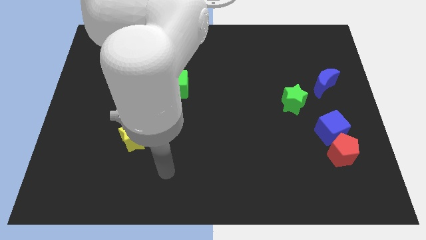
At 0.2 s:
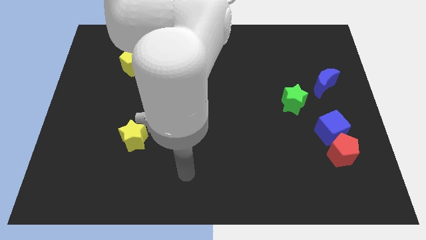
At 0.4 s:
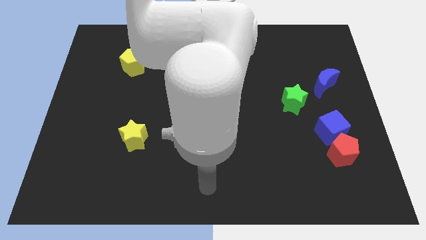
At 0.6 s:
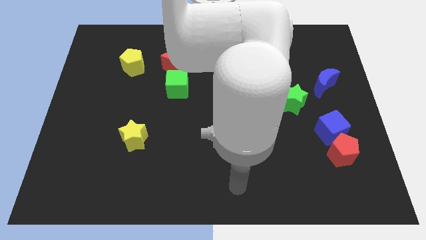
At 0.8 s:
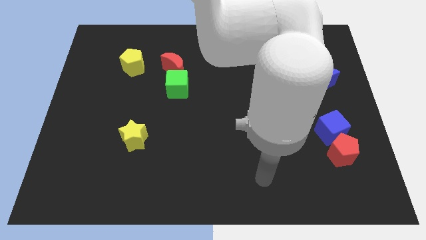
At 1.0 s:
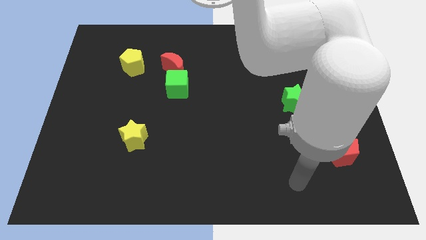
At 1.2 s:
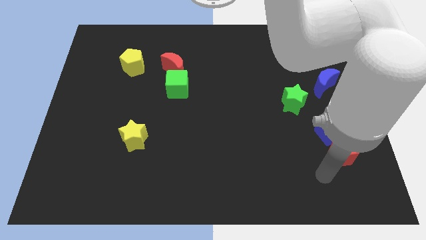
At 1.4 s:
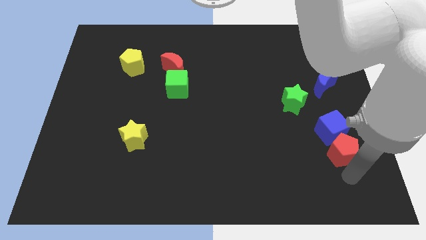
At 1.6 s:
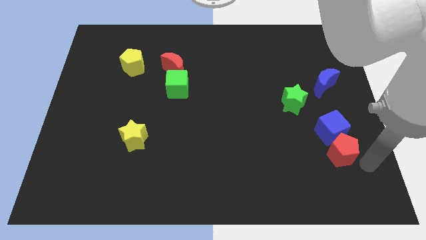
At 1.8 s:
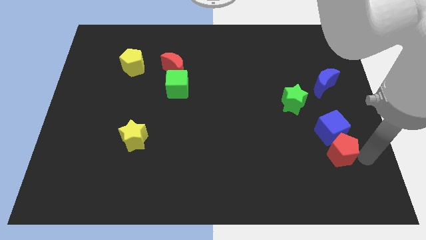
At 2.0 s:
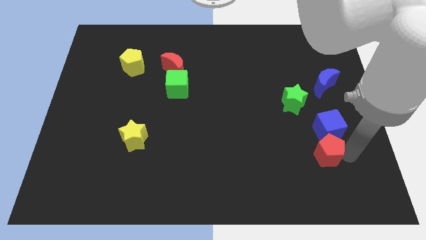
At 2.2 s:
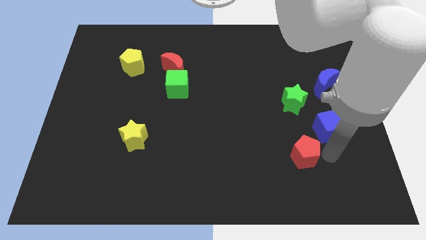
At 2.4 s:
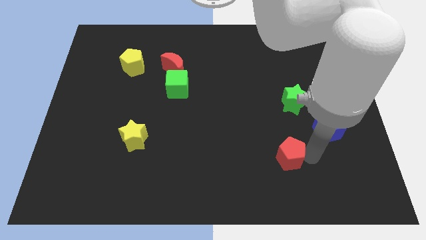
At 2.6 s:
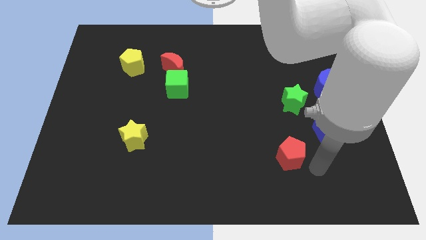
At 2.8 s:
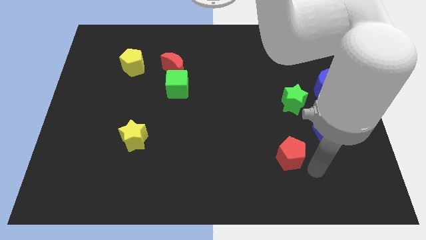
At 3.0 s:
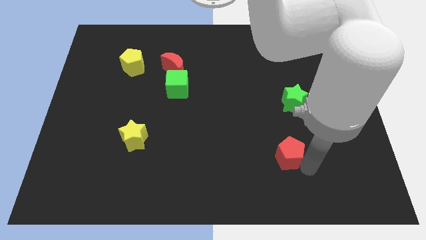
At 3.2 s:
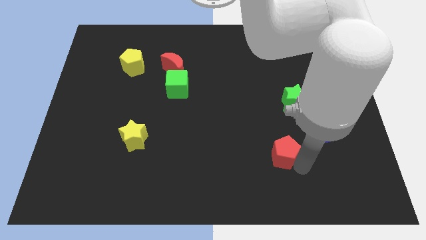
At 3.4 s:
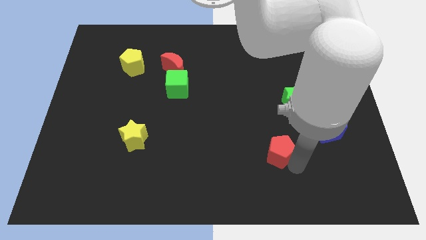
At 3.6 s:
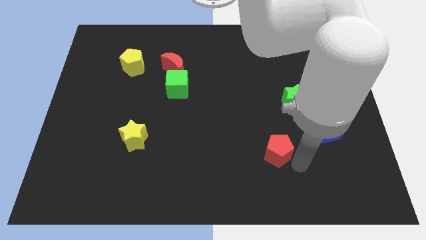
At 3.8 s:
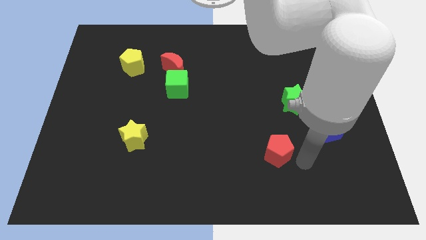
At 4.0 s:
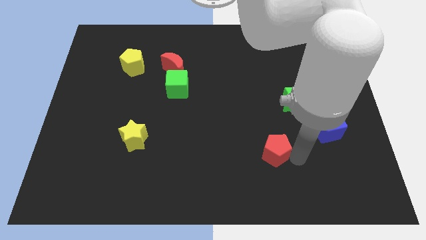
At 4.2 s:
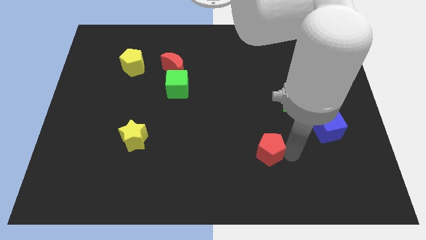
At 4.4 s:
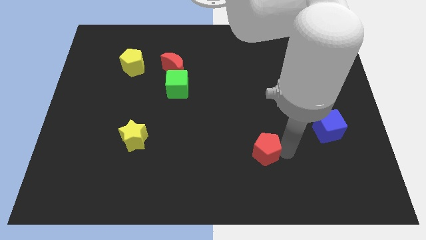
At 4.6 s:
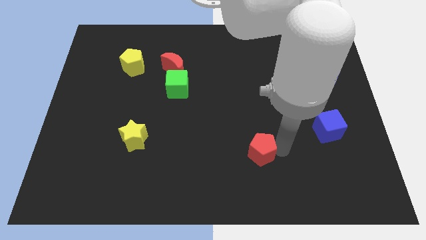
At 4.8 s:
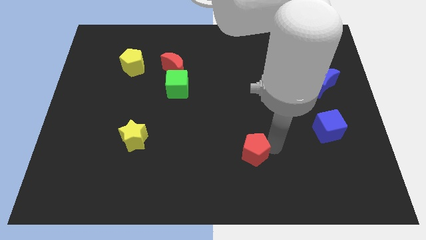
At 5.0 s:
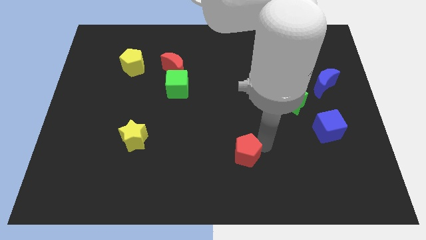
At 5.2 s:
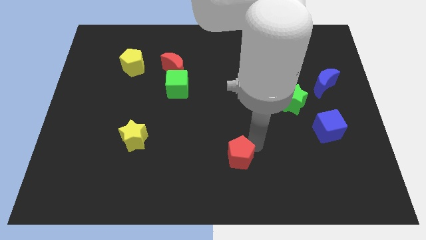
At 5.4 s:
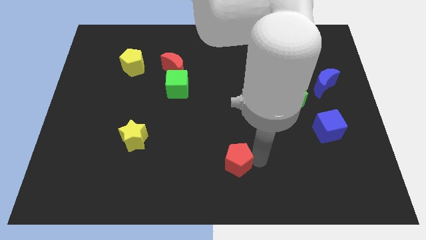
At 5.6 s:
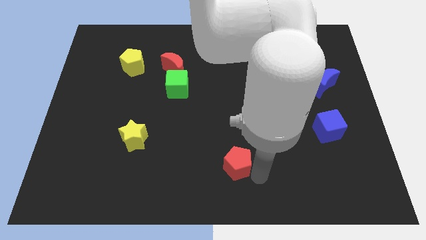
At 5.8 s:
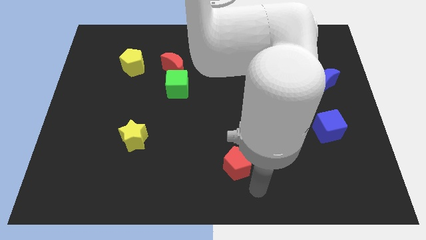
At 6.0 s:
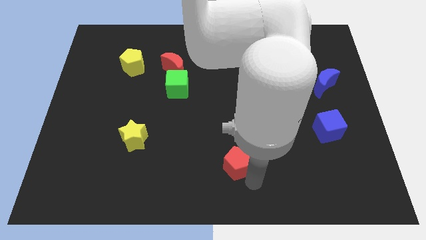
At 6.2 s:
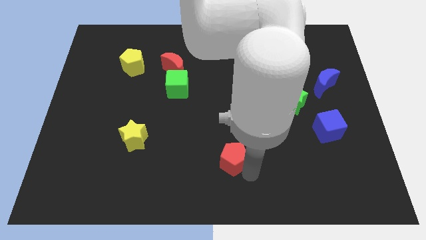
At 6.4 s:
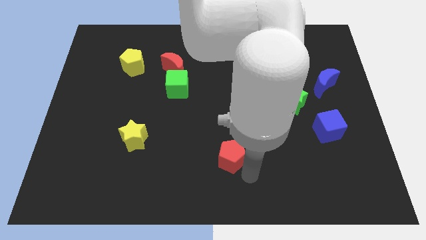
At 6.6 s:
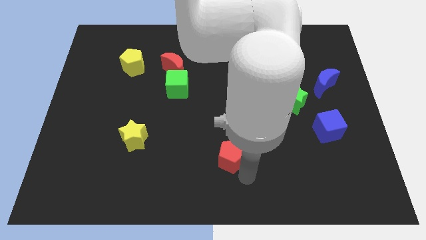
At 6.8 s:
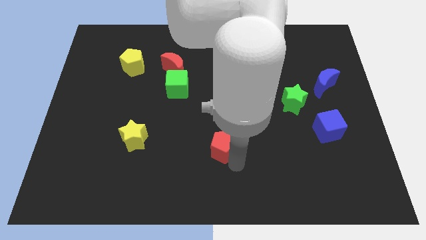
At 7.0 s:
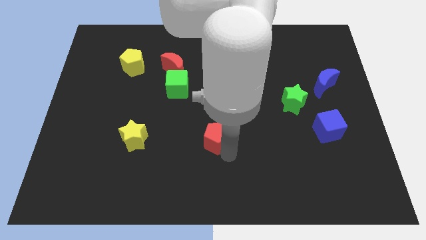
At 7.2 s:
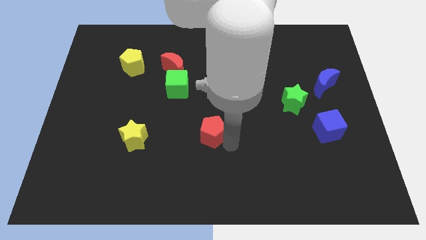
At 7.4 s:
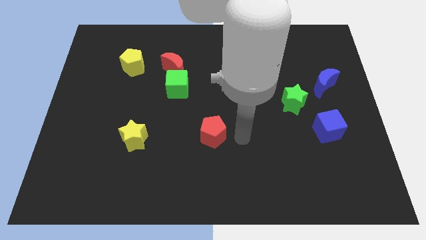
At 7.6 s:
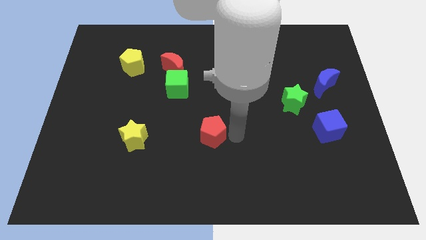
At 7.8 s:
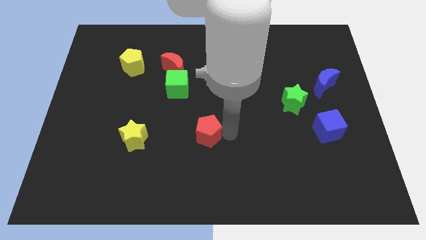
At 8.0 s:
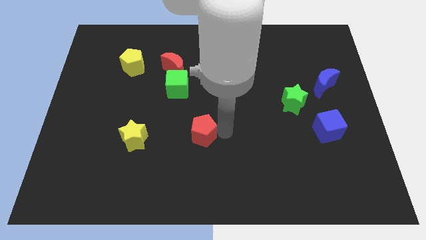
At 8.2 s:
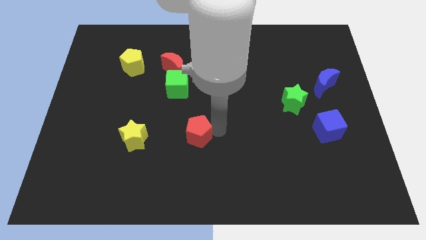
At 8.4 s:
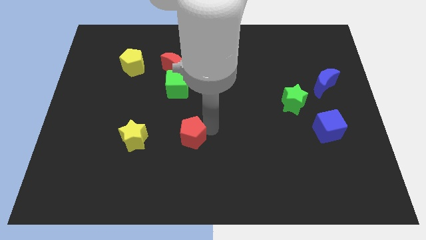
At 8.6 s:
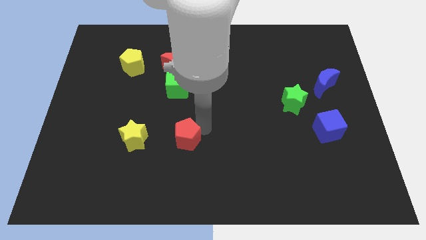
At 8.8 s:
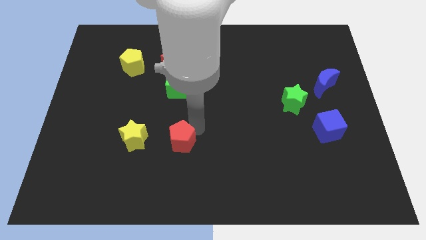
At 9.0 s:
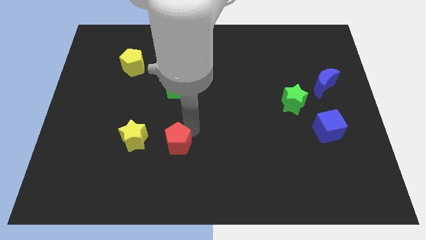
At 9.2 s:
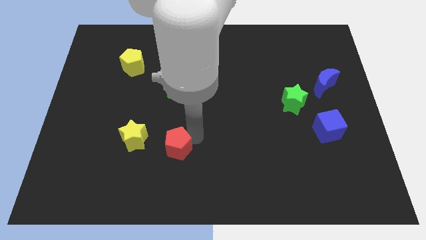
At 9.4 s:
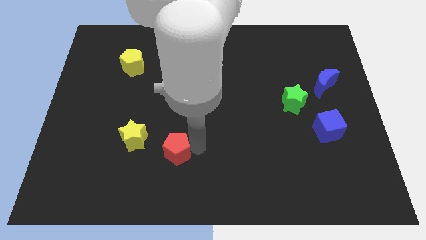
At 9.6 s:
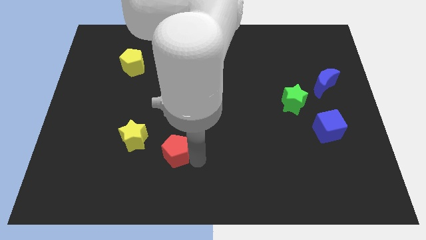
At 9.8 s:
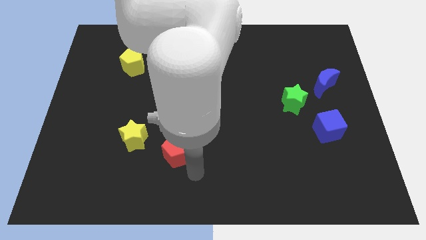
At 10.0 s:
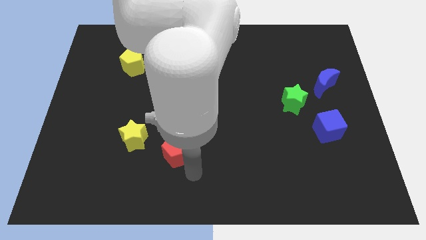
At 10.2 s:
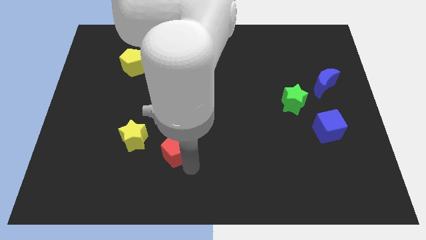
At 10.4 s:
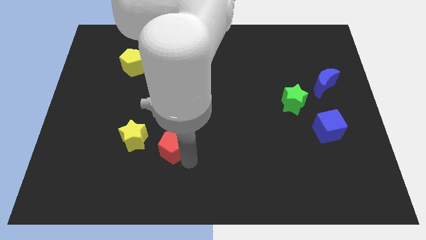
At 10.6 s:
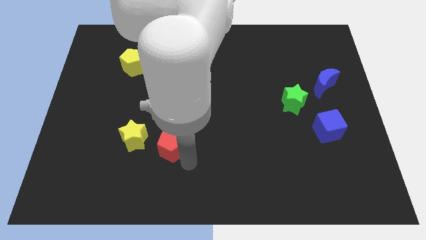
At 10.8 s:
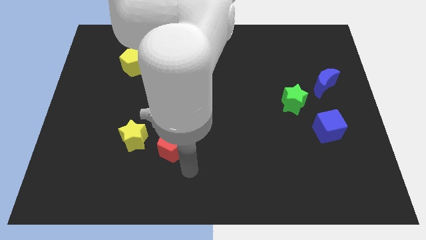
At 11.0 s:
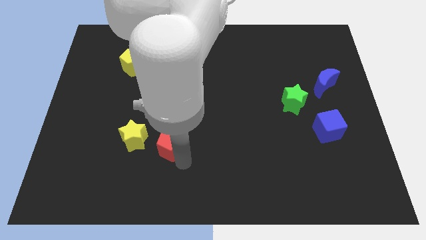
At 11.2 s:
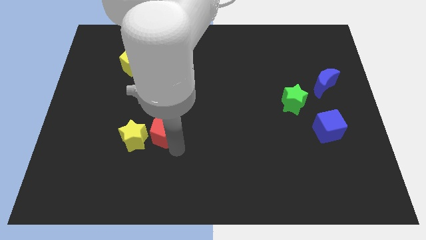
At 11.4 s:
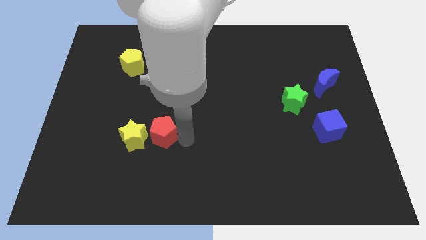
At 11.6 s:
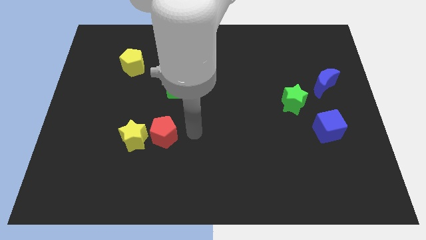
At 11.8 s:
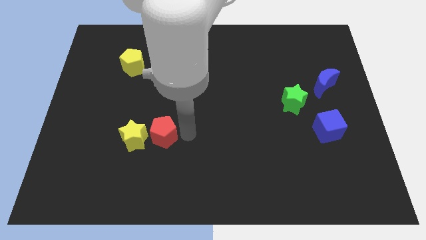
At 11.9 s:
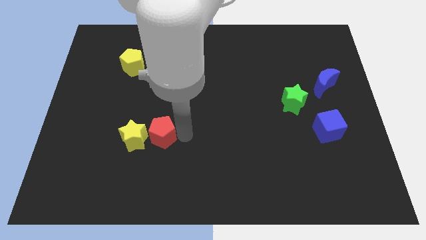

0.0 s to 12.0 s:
push the red pentagon to the yellow star
